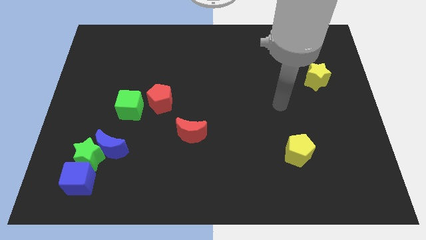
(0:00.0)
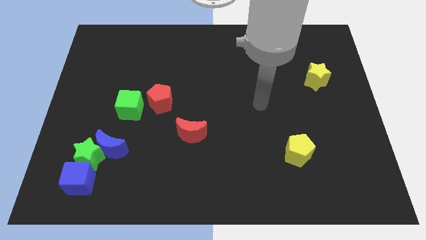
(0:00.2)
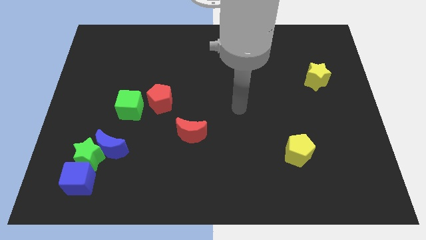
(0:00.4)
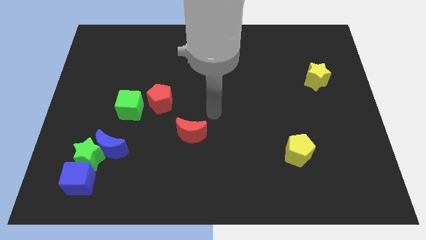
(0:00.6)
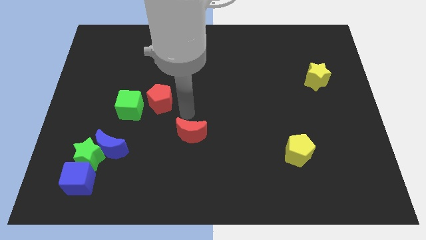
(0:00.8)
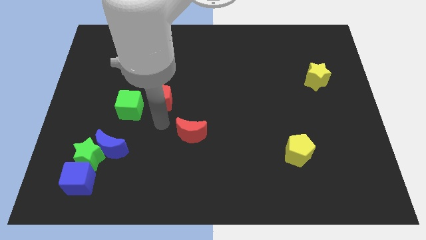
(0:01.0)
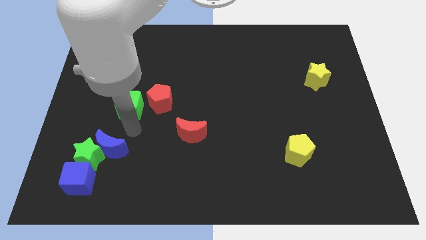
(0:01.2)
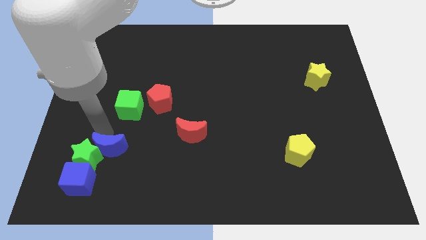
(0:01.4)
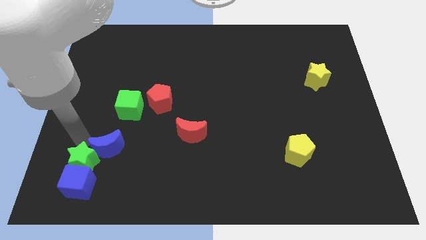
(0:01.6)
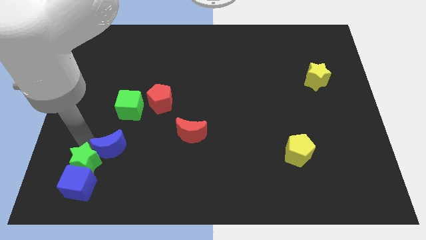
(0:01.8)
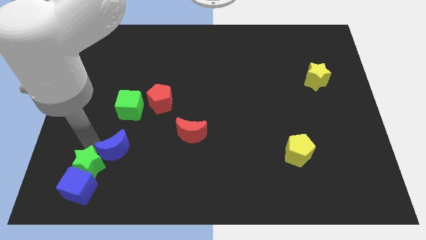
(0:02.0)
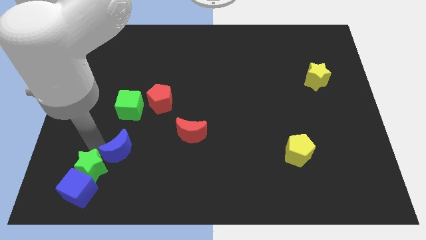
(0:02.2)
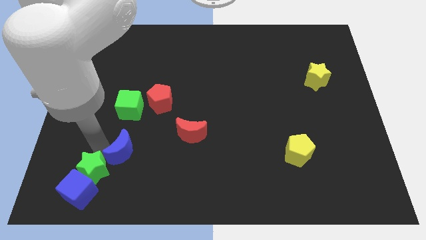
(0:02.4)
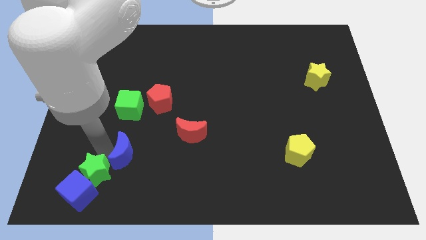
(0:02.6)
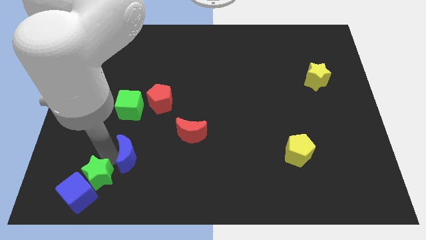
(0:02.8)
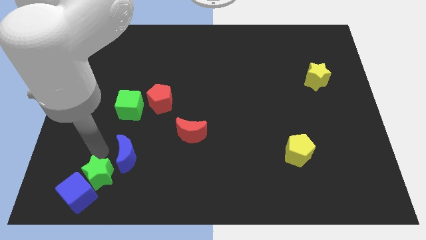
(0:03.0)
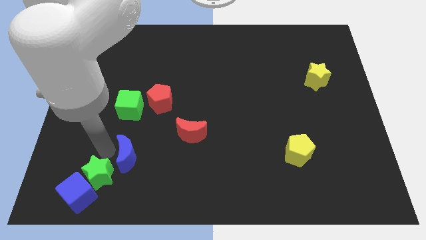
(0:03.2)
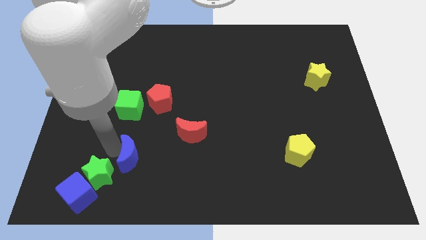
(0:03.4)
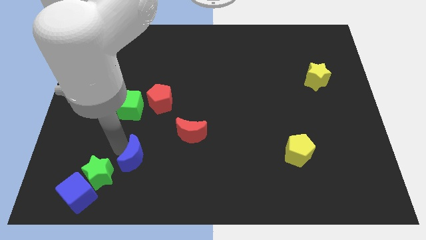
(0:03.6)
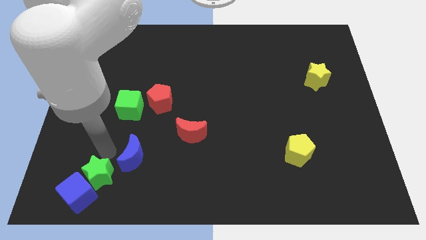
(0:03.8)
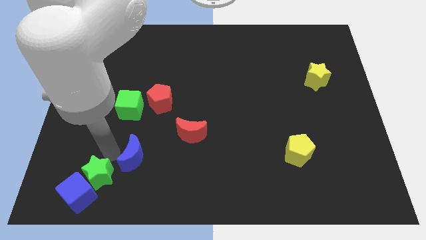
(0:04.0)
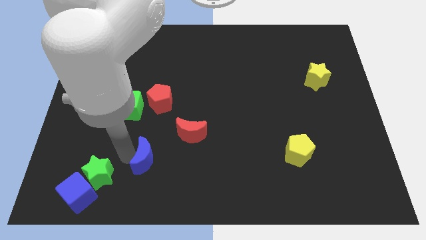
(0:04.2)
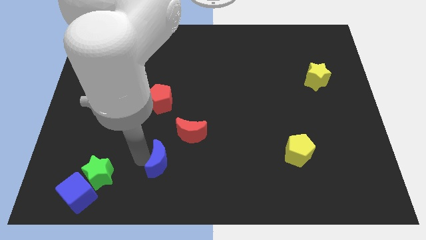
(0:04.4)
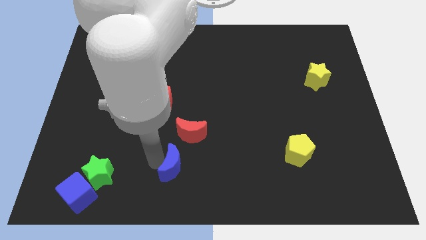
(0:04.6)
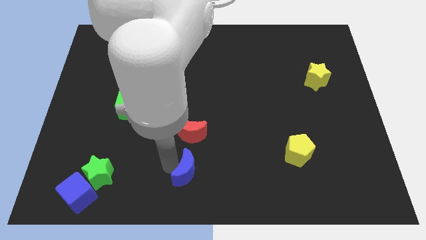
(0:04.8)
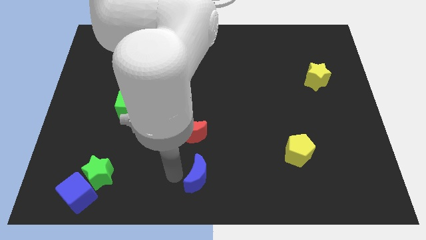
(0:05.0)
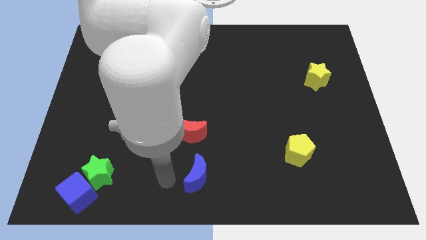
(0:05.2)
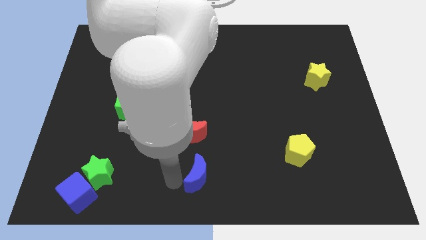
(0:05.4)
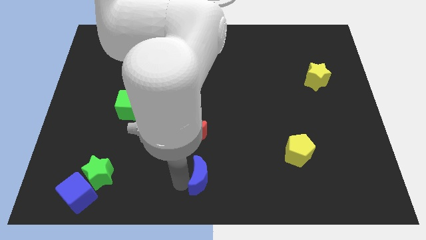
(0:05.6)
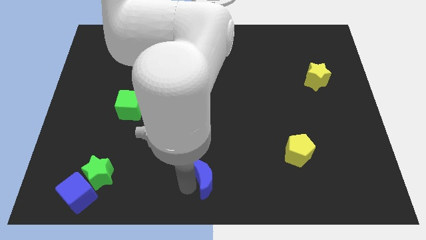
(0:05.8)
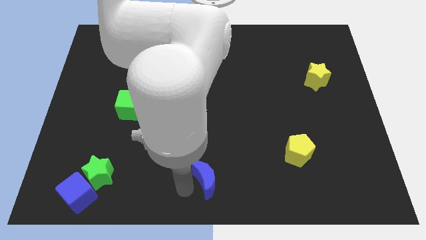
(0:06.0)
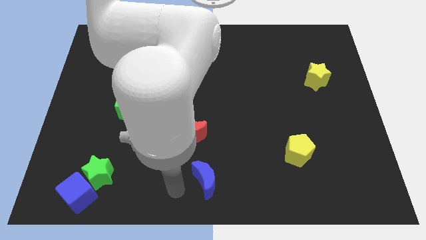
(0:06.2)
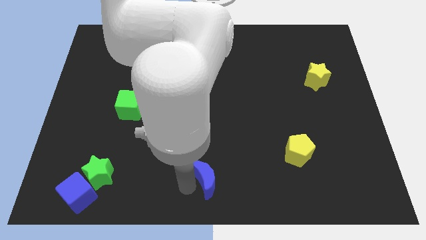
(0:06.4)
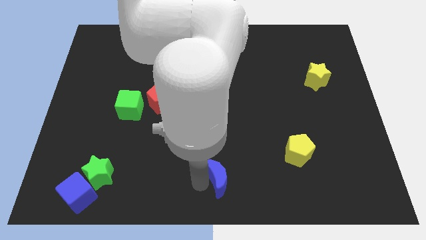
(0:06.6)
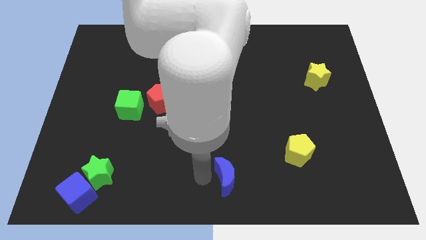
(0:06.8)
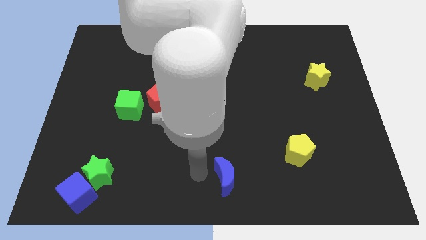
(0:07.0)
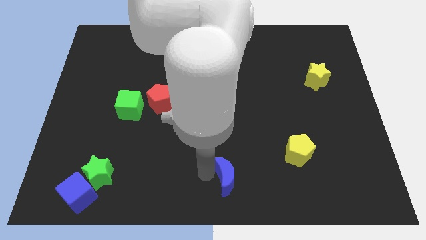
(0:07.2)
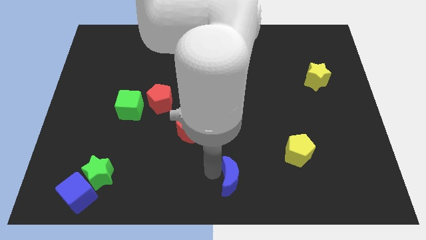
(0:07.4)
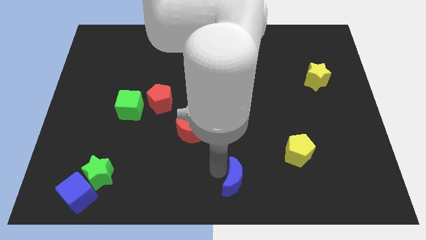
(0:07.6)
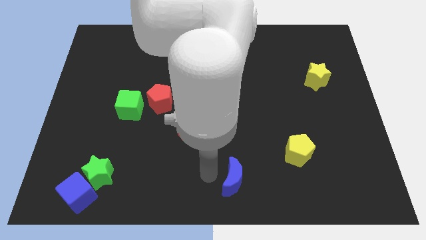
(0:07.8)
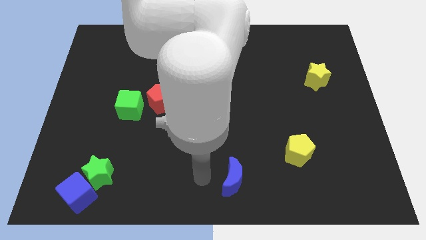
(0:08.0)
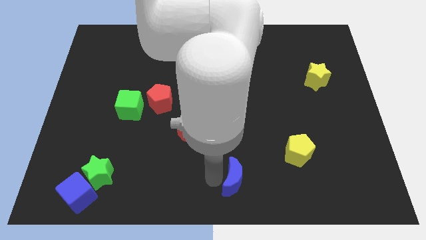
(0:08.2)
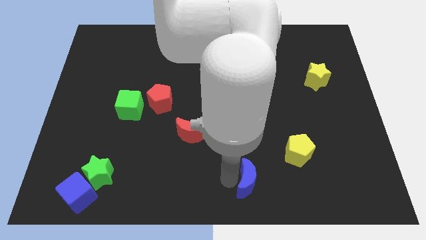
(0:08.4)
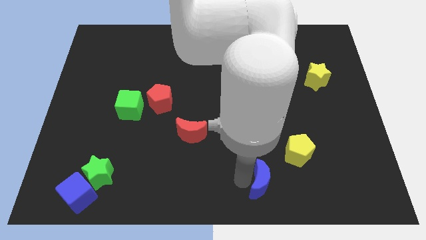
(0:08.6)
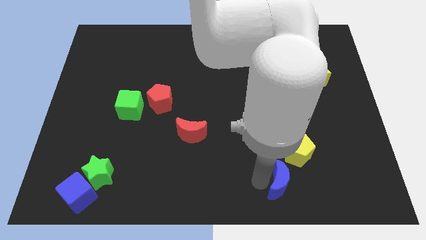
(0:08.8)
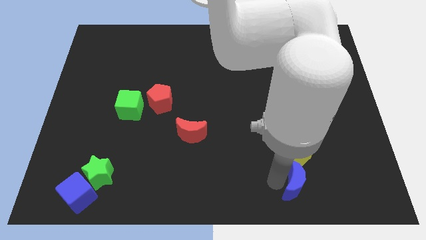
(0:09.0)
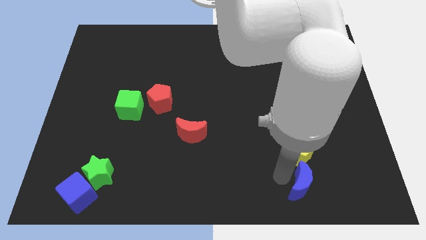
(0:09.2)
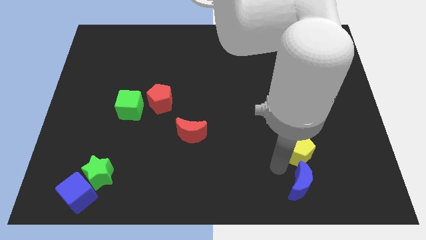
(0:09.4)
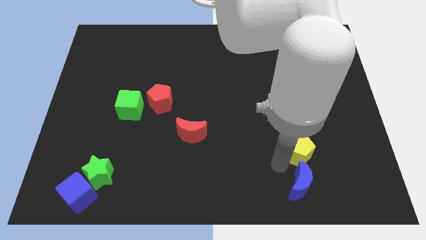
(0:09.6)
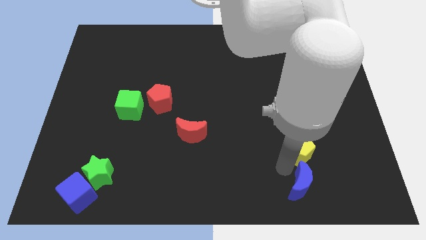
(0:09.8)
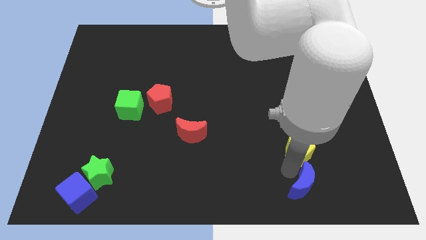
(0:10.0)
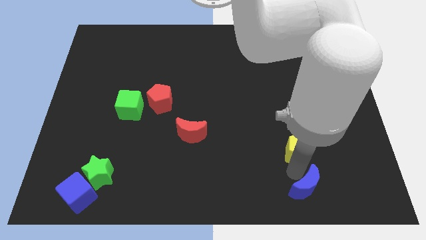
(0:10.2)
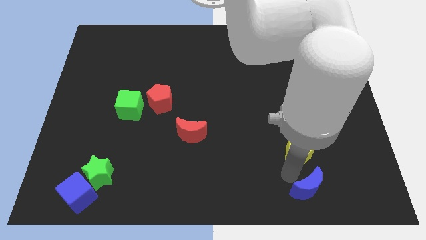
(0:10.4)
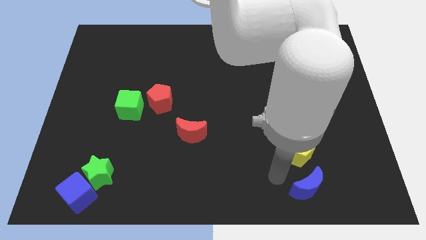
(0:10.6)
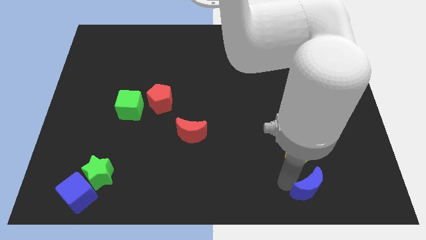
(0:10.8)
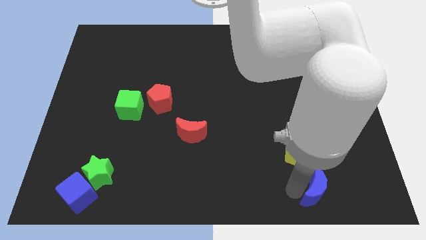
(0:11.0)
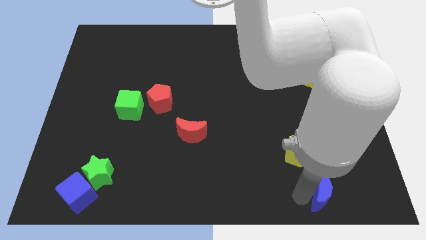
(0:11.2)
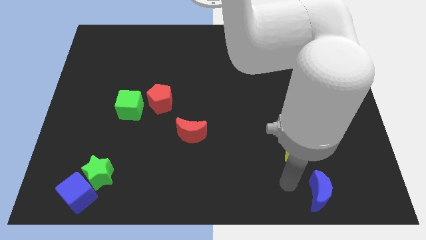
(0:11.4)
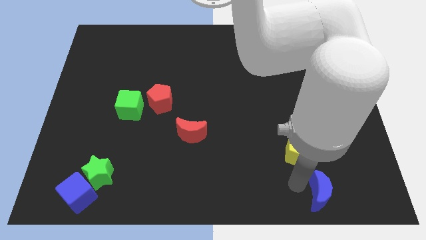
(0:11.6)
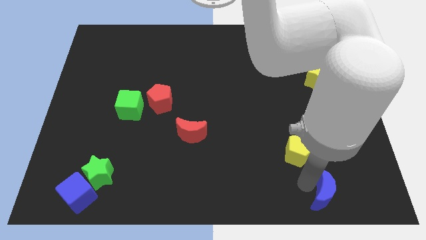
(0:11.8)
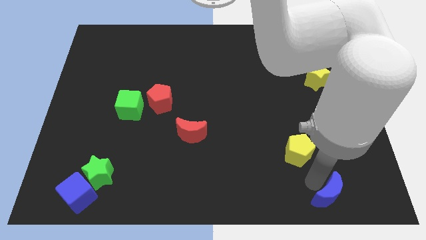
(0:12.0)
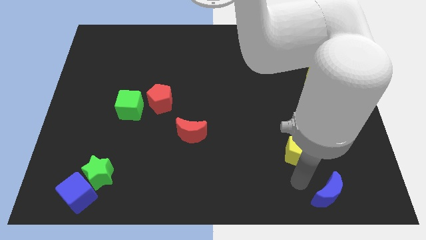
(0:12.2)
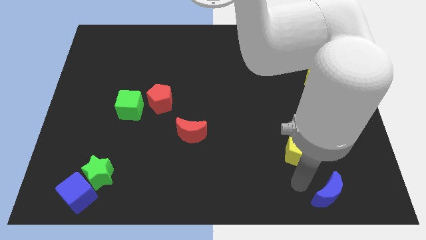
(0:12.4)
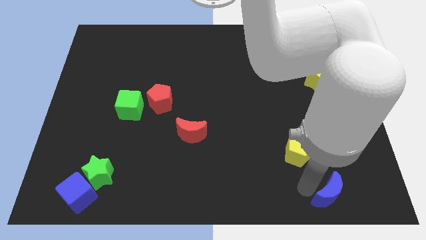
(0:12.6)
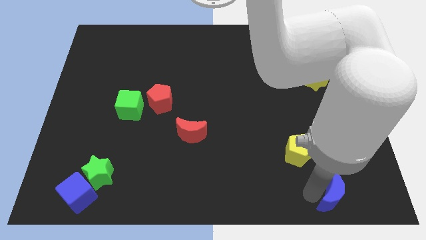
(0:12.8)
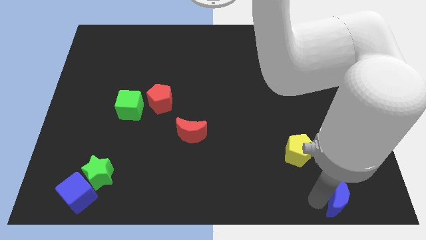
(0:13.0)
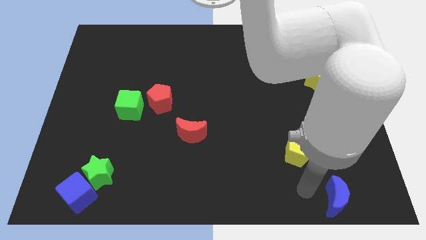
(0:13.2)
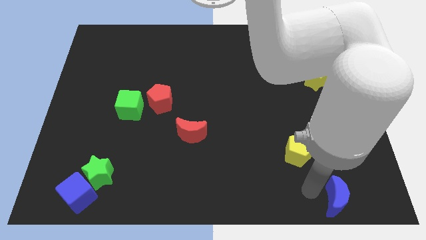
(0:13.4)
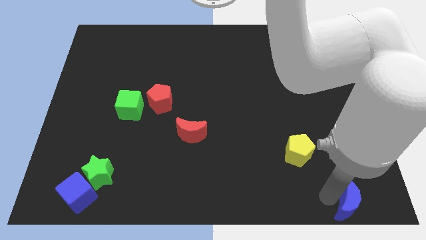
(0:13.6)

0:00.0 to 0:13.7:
push the blue moon to the bottom right corner
